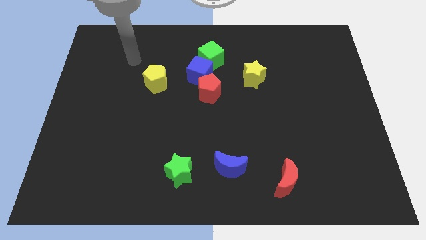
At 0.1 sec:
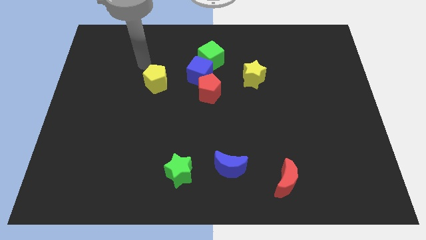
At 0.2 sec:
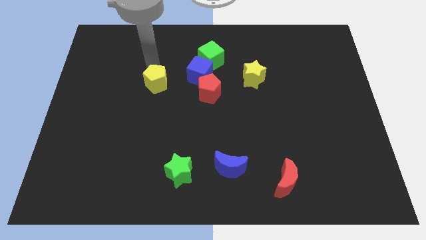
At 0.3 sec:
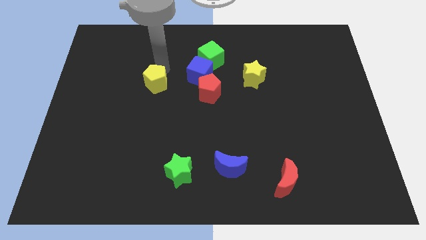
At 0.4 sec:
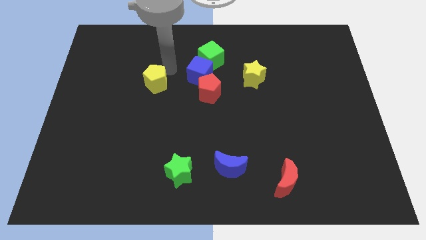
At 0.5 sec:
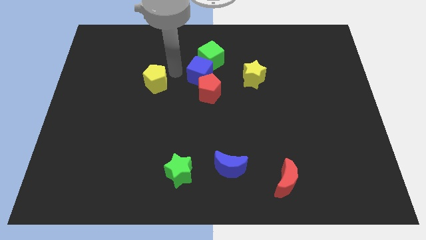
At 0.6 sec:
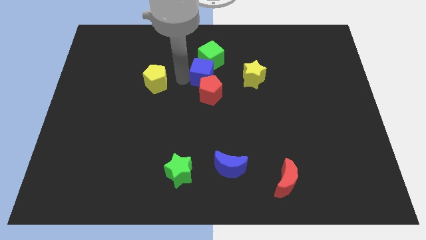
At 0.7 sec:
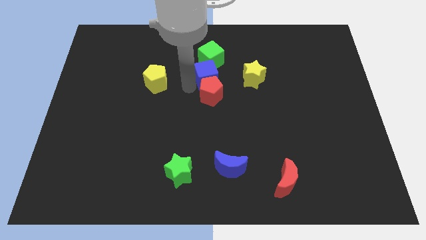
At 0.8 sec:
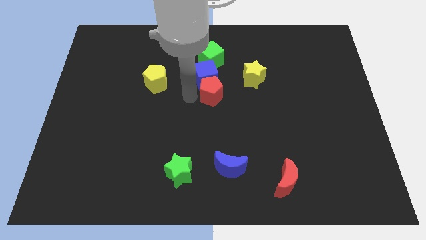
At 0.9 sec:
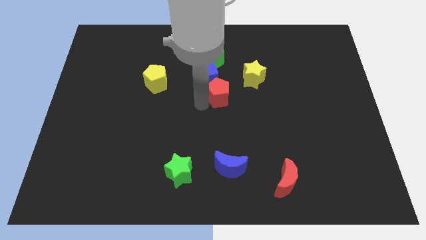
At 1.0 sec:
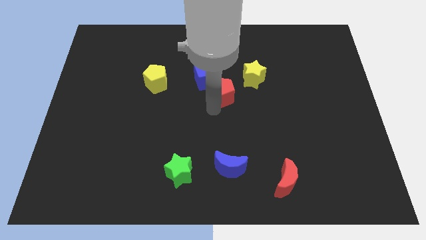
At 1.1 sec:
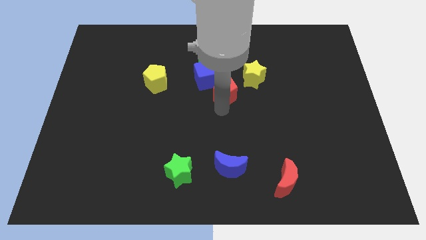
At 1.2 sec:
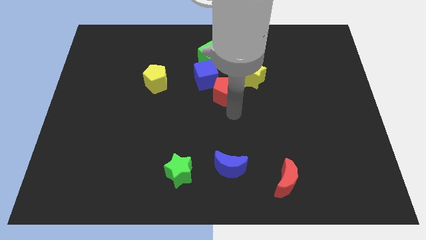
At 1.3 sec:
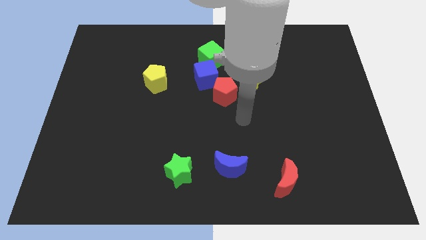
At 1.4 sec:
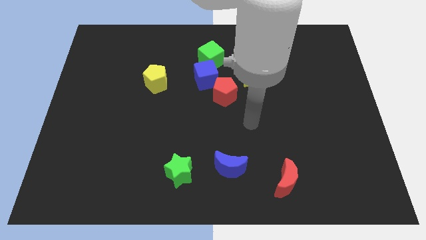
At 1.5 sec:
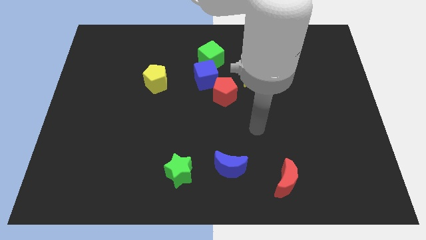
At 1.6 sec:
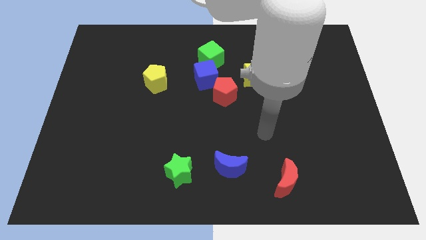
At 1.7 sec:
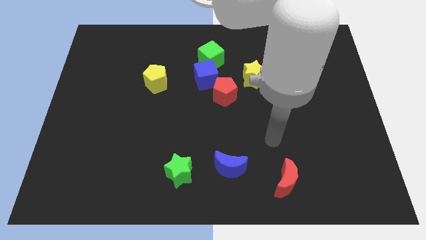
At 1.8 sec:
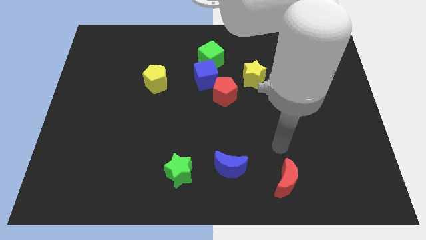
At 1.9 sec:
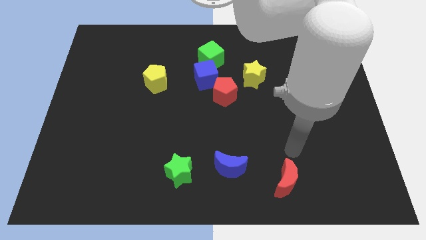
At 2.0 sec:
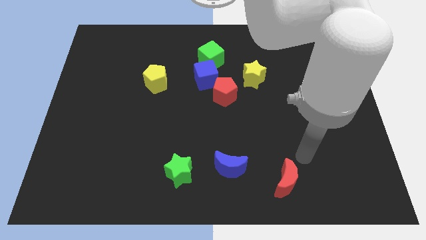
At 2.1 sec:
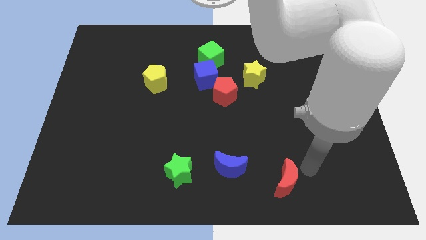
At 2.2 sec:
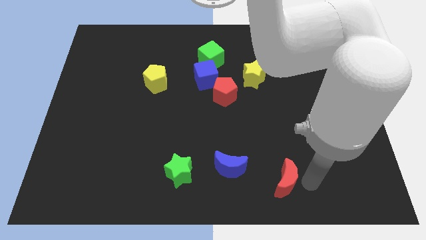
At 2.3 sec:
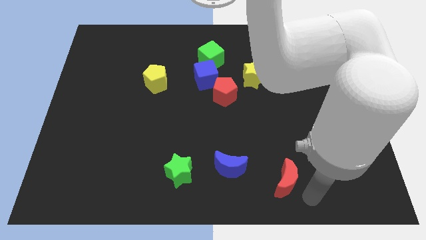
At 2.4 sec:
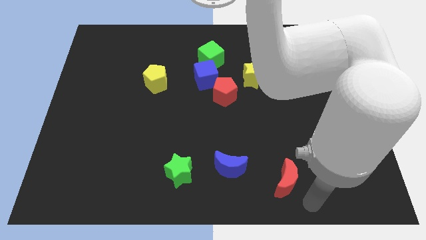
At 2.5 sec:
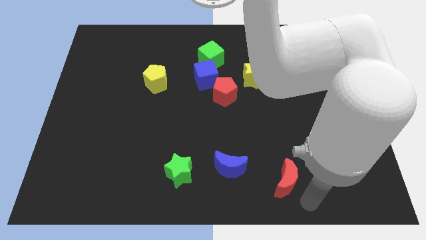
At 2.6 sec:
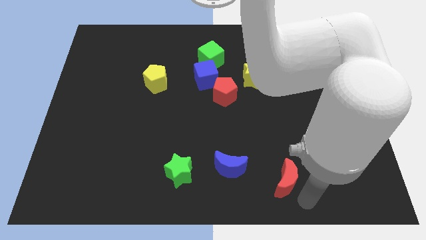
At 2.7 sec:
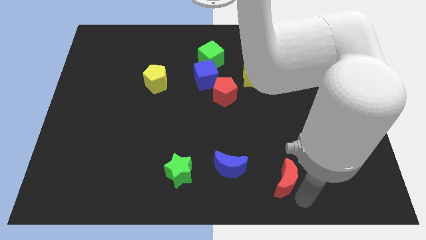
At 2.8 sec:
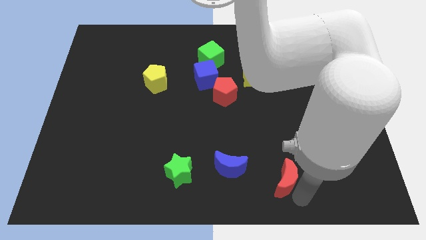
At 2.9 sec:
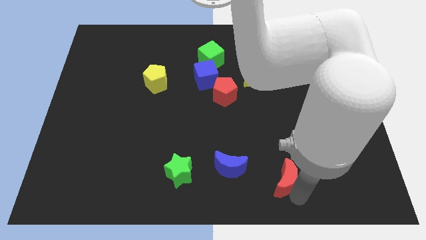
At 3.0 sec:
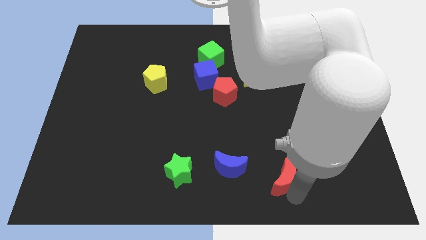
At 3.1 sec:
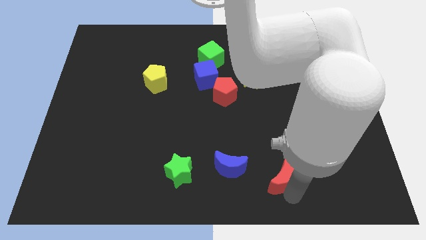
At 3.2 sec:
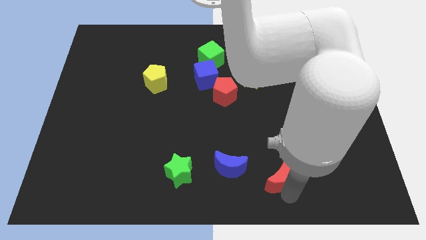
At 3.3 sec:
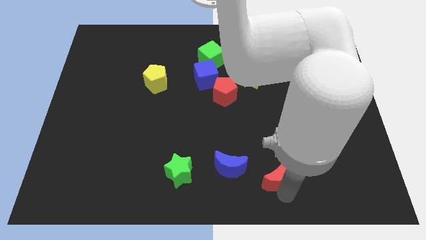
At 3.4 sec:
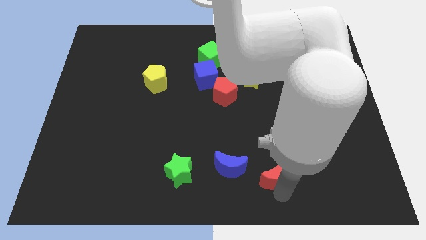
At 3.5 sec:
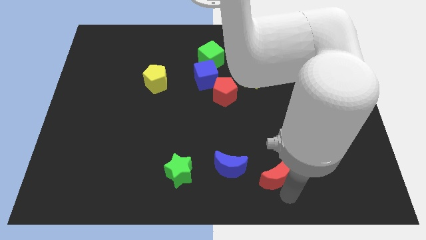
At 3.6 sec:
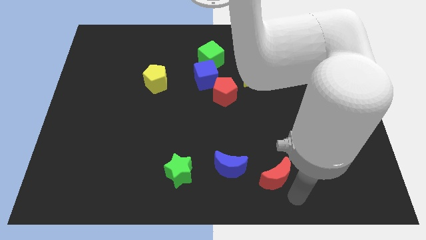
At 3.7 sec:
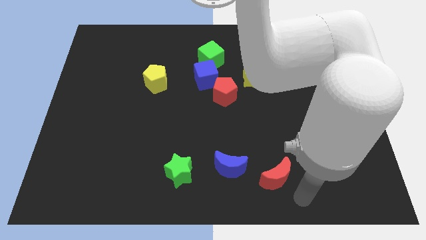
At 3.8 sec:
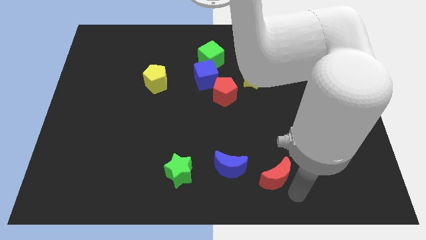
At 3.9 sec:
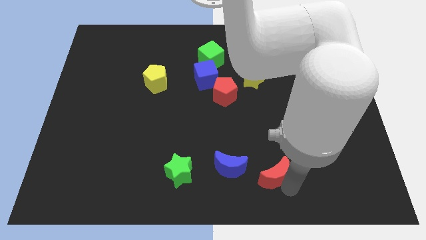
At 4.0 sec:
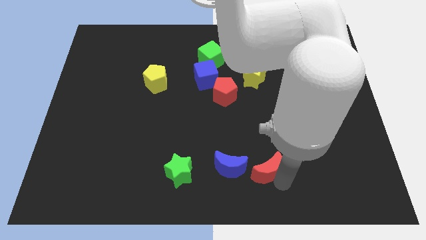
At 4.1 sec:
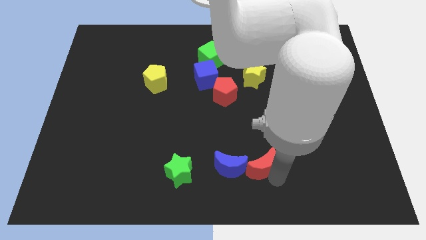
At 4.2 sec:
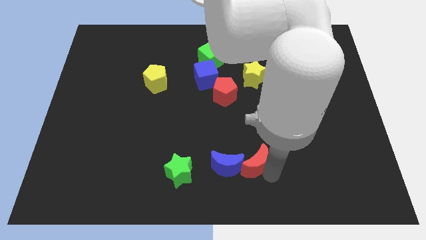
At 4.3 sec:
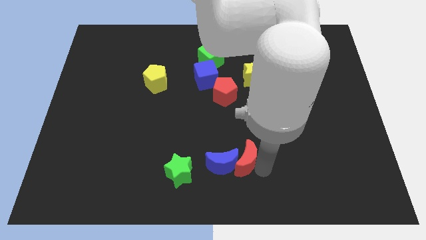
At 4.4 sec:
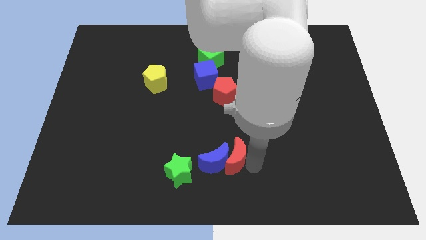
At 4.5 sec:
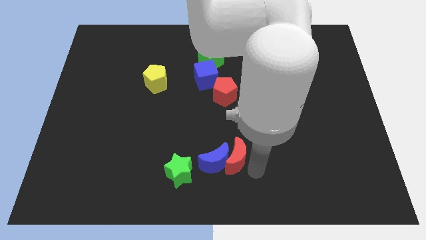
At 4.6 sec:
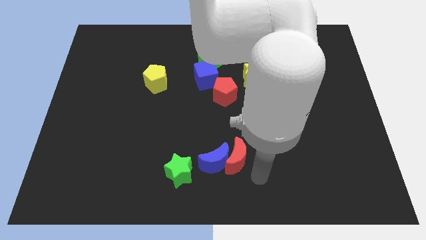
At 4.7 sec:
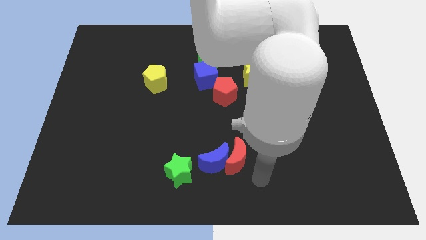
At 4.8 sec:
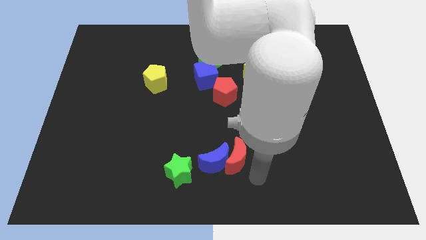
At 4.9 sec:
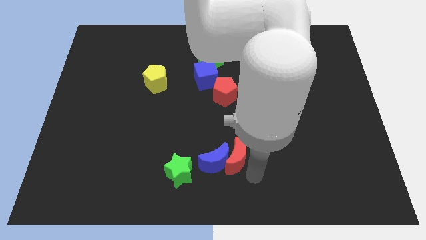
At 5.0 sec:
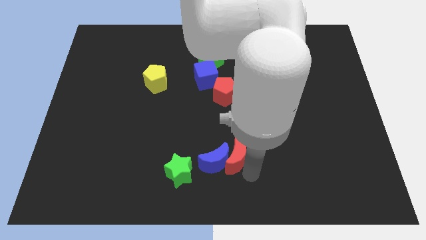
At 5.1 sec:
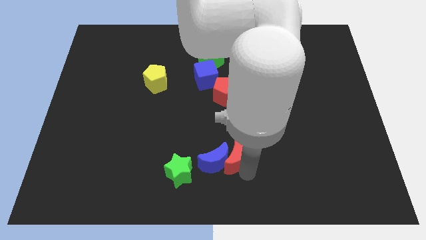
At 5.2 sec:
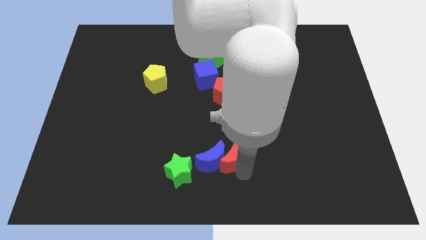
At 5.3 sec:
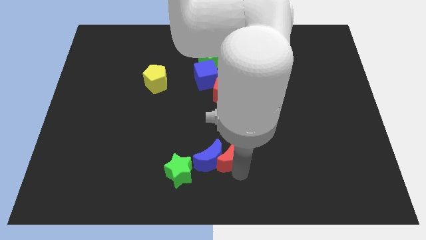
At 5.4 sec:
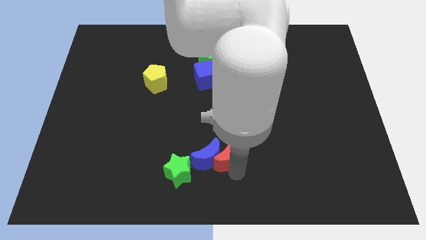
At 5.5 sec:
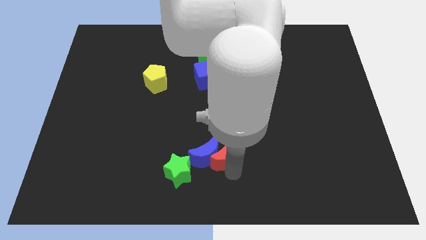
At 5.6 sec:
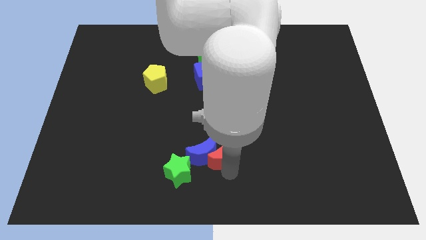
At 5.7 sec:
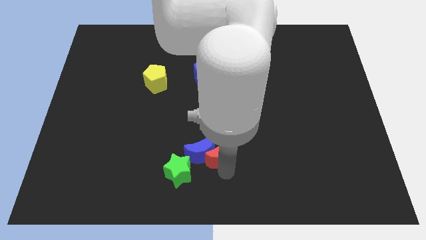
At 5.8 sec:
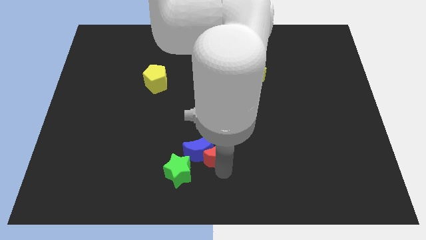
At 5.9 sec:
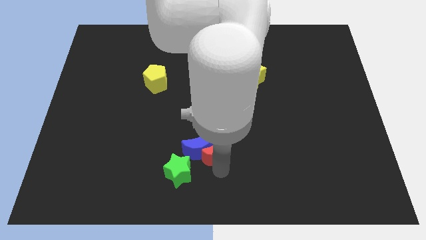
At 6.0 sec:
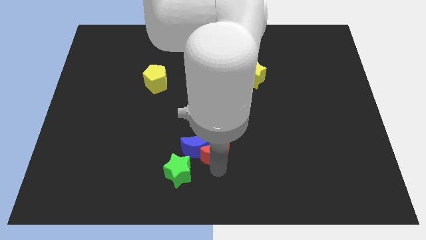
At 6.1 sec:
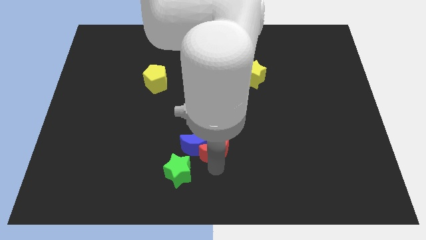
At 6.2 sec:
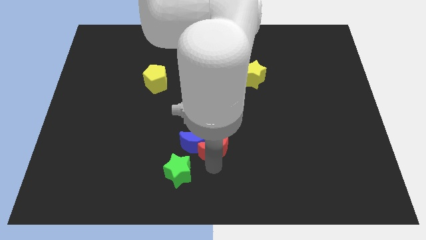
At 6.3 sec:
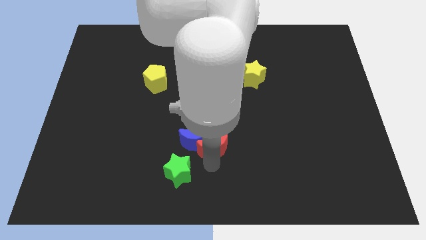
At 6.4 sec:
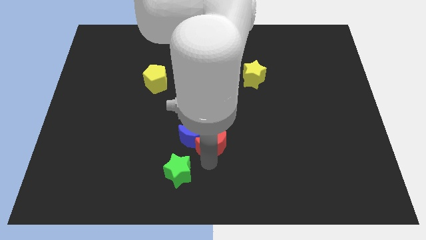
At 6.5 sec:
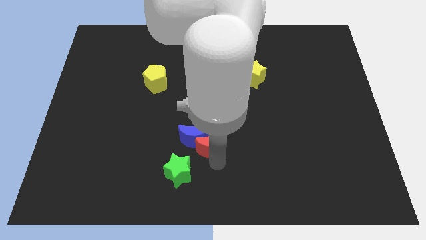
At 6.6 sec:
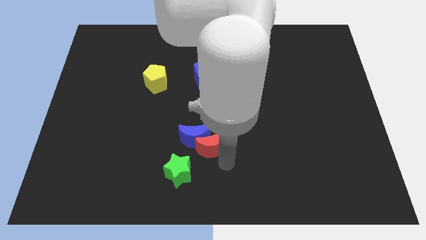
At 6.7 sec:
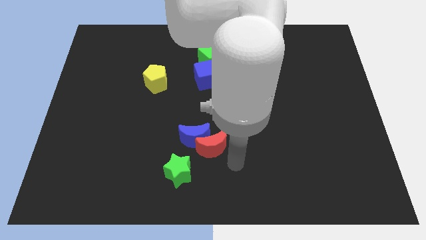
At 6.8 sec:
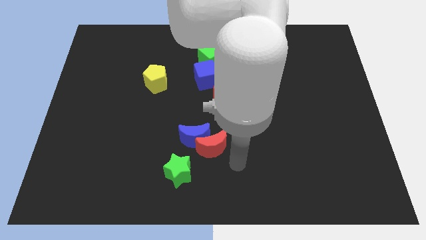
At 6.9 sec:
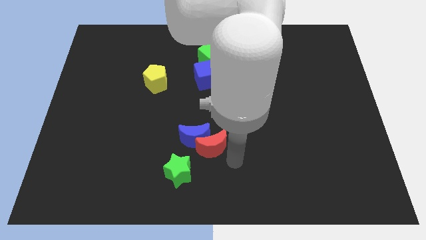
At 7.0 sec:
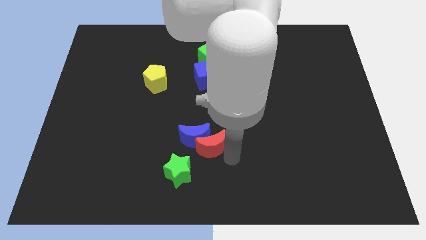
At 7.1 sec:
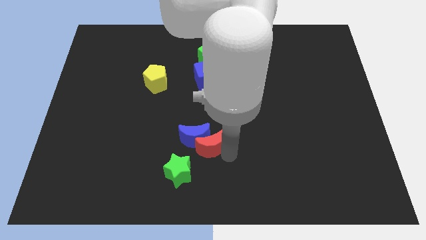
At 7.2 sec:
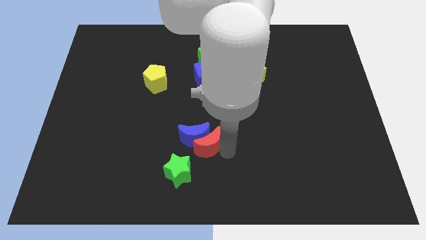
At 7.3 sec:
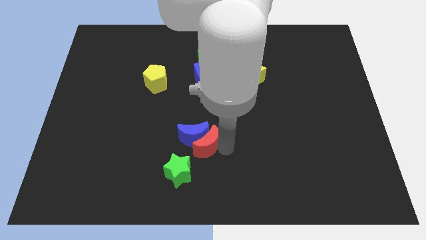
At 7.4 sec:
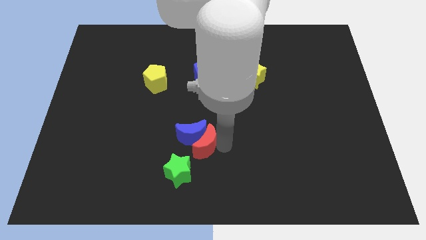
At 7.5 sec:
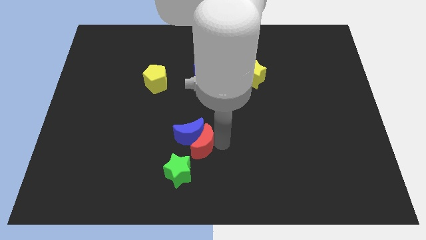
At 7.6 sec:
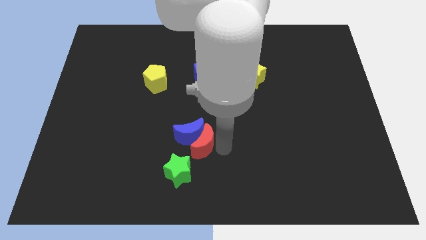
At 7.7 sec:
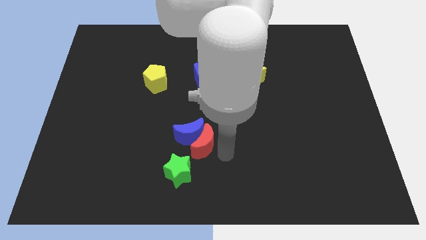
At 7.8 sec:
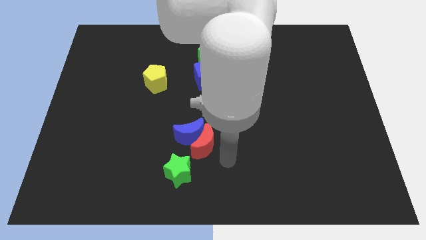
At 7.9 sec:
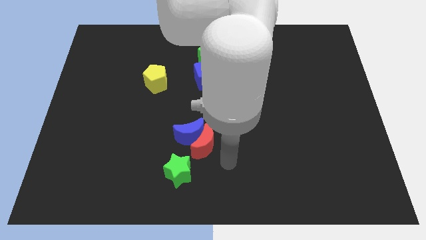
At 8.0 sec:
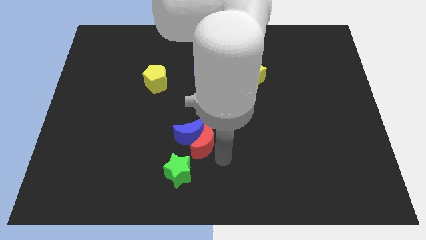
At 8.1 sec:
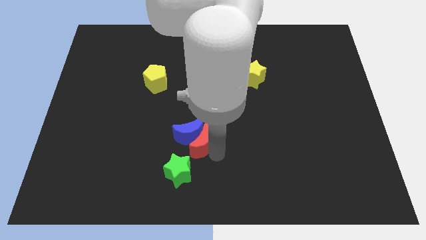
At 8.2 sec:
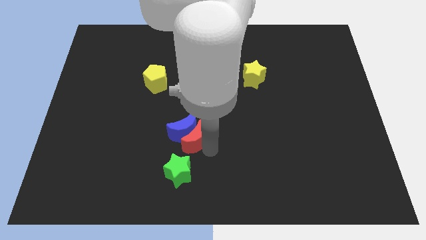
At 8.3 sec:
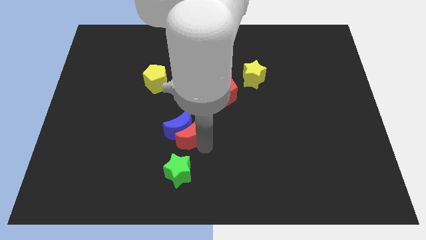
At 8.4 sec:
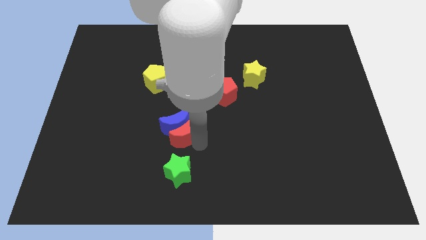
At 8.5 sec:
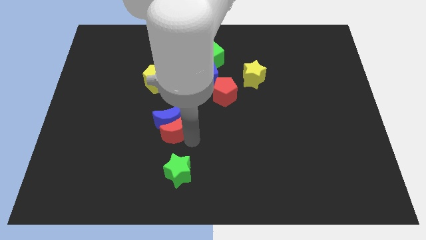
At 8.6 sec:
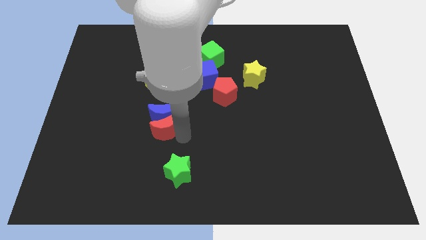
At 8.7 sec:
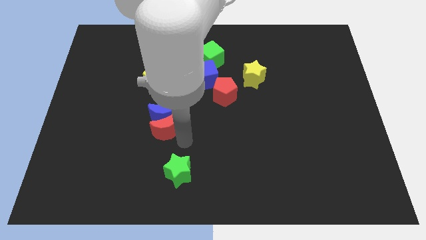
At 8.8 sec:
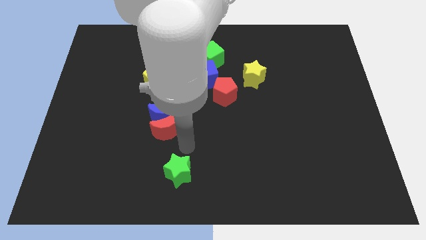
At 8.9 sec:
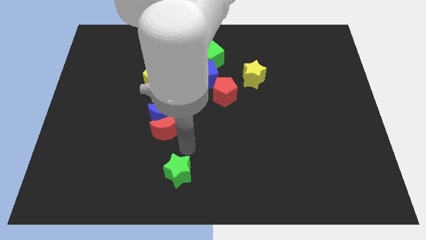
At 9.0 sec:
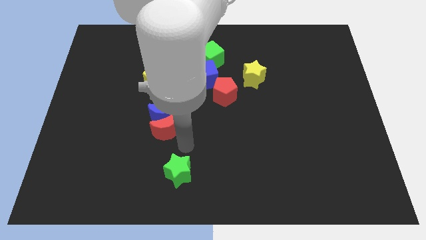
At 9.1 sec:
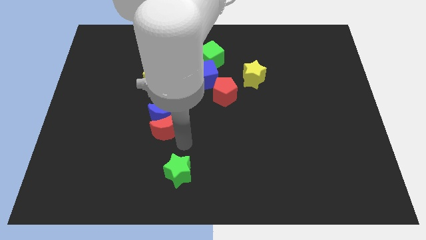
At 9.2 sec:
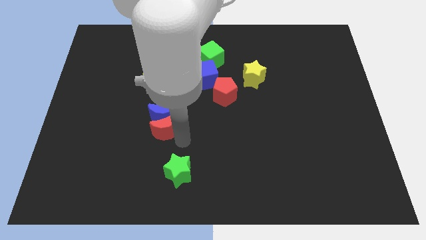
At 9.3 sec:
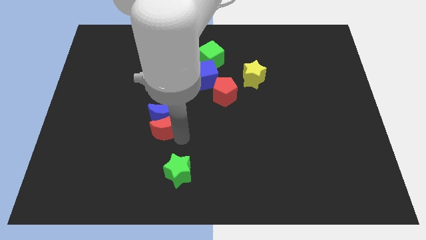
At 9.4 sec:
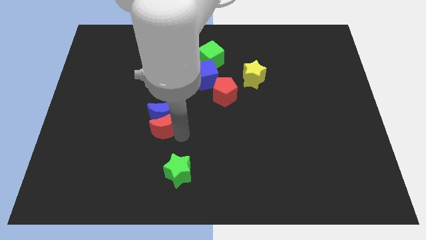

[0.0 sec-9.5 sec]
put the red moon to the bottom of the yellow pentagon
